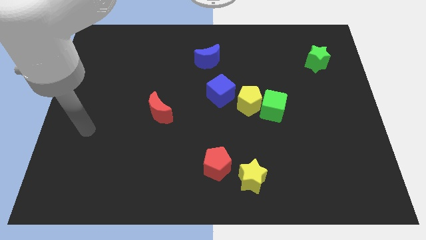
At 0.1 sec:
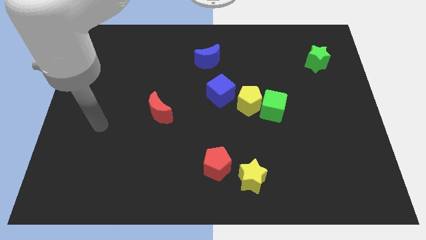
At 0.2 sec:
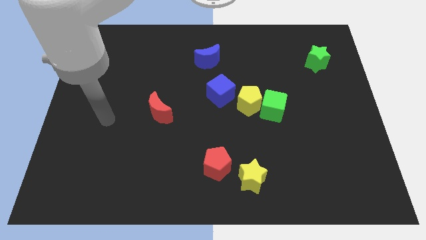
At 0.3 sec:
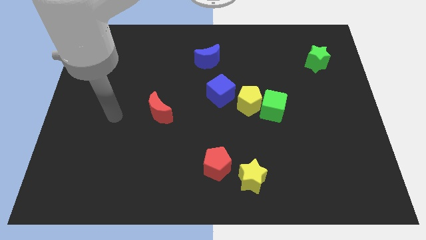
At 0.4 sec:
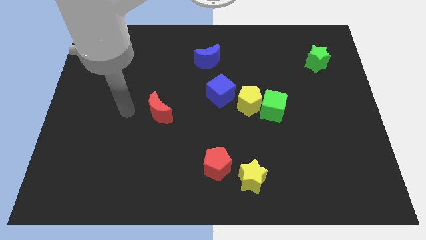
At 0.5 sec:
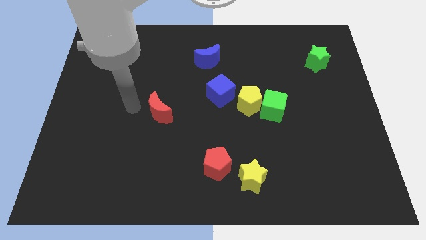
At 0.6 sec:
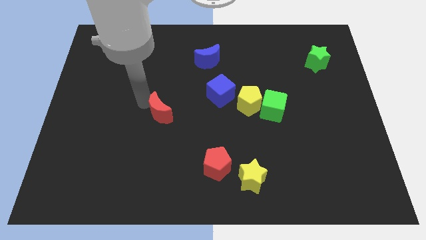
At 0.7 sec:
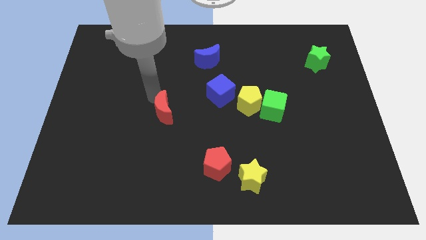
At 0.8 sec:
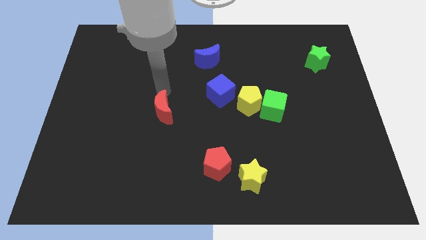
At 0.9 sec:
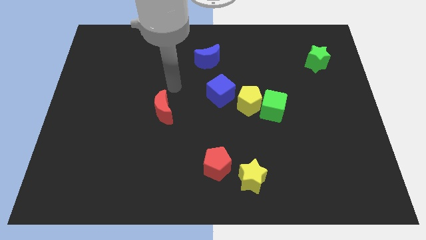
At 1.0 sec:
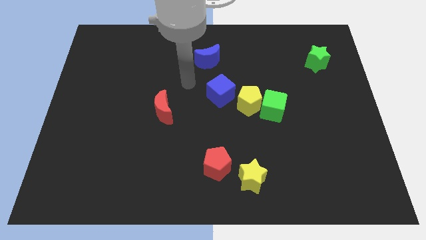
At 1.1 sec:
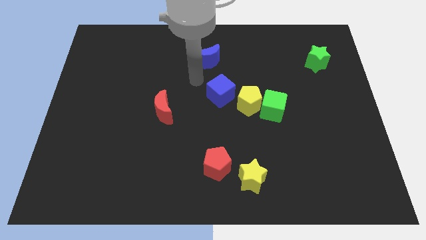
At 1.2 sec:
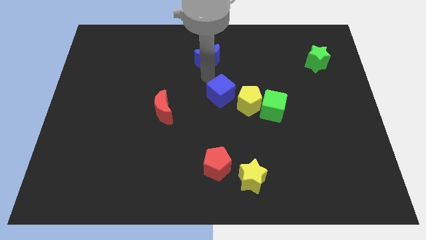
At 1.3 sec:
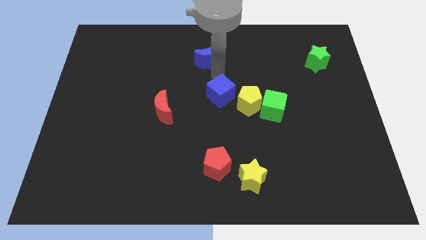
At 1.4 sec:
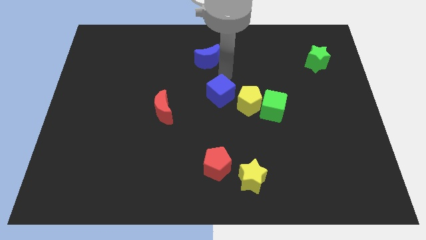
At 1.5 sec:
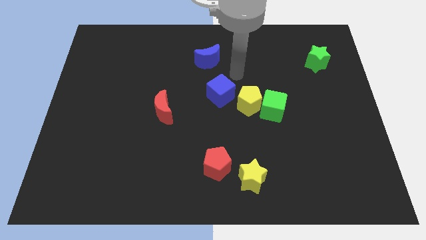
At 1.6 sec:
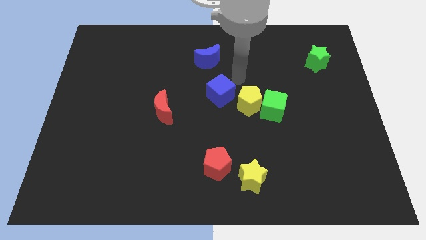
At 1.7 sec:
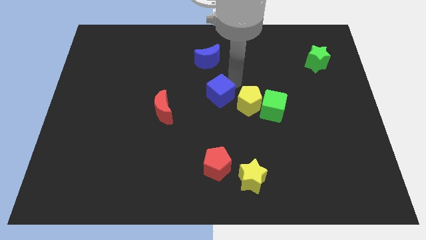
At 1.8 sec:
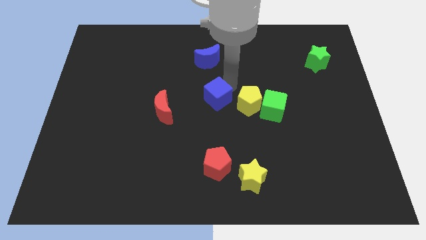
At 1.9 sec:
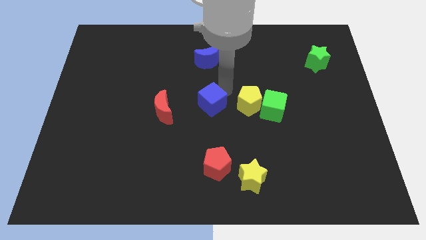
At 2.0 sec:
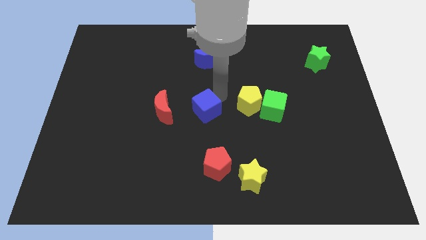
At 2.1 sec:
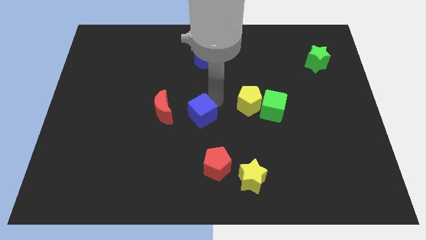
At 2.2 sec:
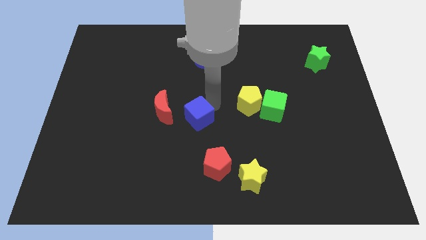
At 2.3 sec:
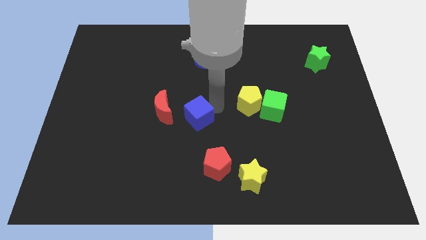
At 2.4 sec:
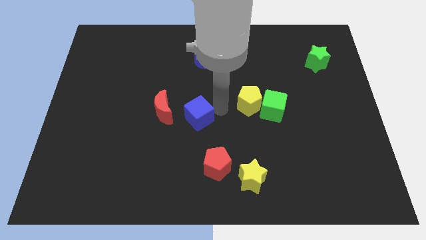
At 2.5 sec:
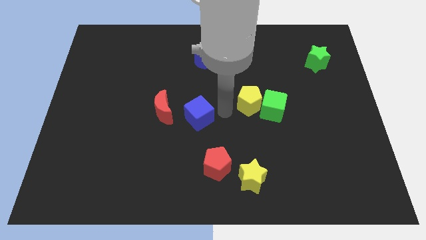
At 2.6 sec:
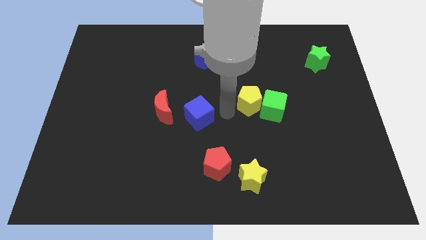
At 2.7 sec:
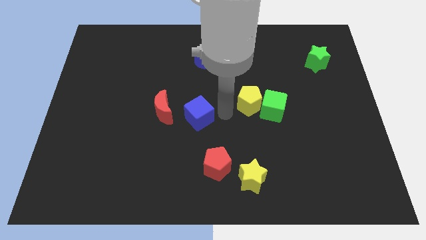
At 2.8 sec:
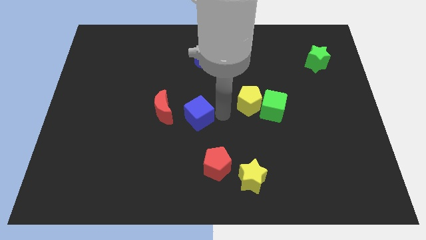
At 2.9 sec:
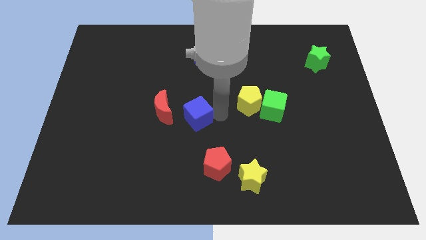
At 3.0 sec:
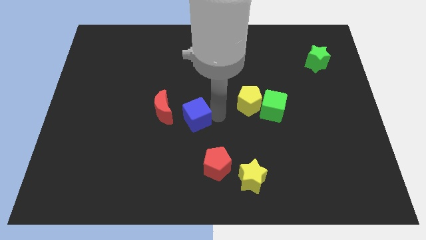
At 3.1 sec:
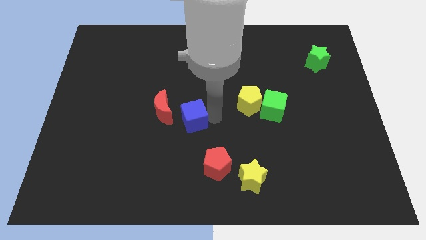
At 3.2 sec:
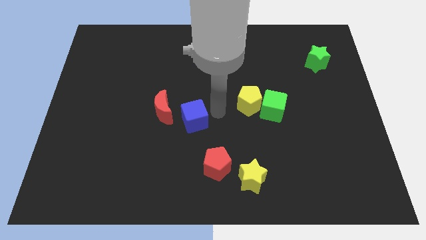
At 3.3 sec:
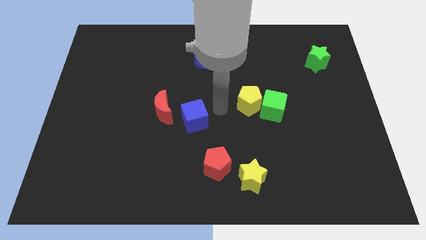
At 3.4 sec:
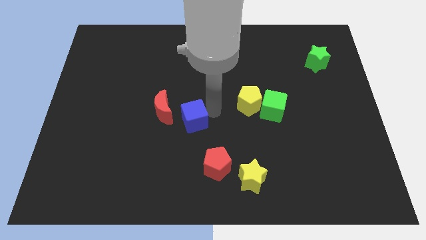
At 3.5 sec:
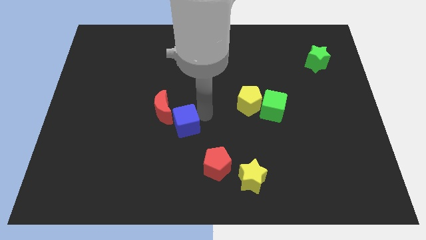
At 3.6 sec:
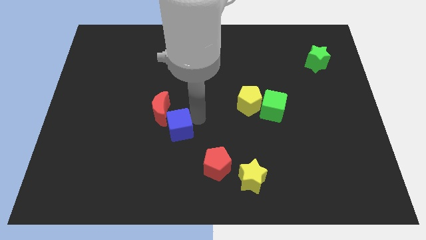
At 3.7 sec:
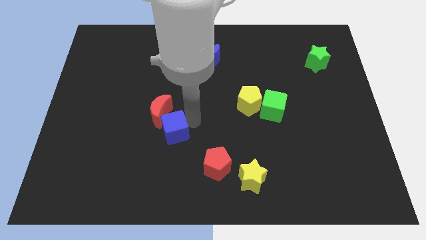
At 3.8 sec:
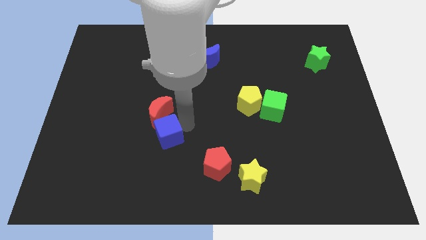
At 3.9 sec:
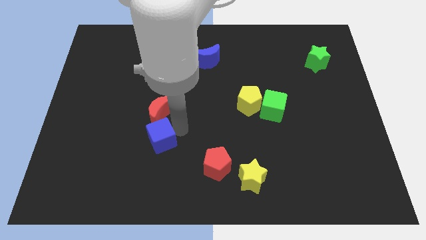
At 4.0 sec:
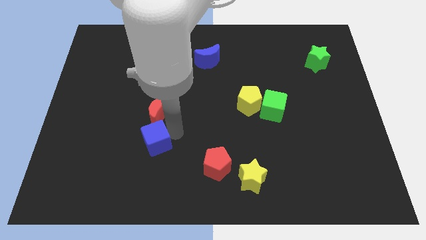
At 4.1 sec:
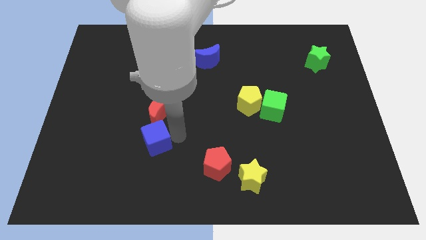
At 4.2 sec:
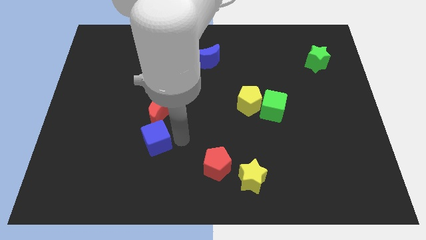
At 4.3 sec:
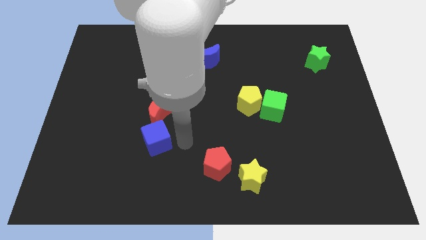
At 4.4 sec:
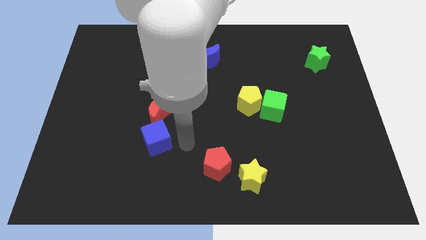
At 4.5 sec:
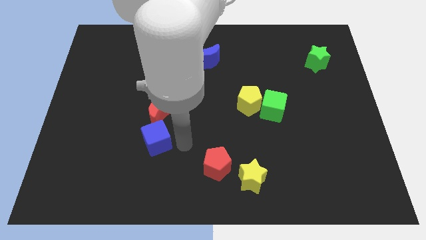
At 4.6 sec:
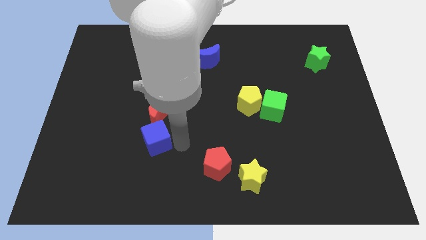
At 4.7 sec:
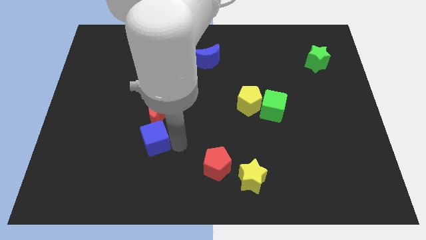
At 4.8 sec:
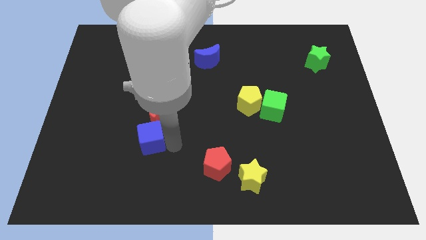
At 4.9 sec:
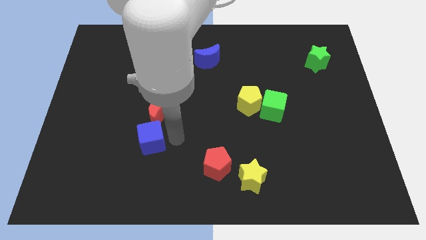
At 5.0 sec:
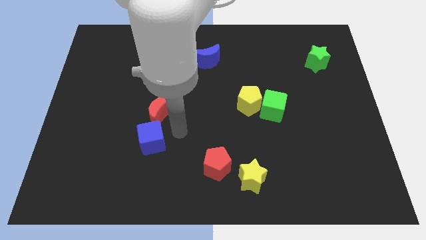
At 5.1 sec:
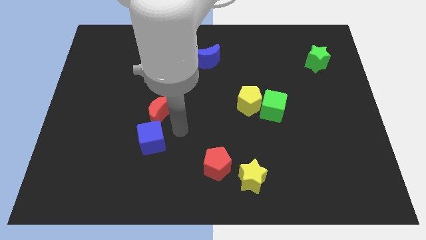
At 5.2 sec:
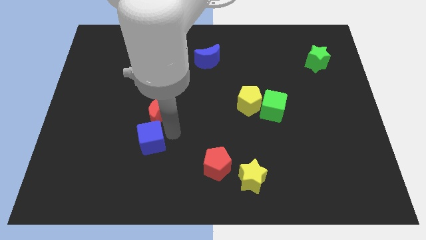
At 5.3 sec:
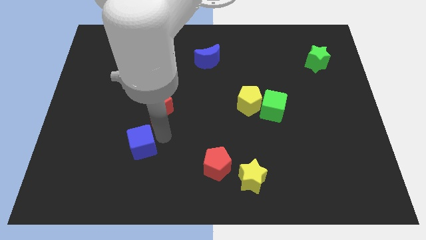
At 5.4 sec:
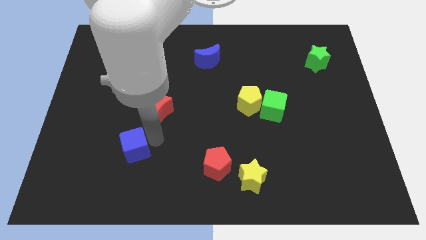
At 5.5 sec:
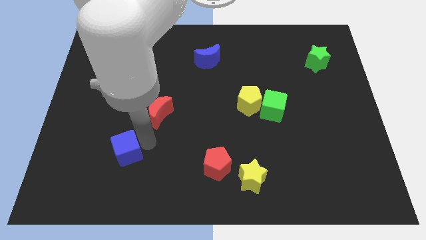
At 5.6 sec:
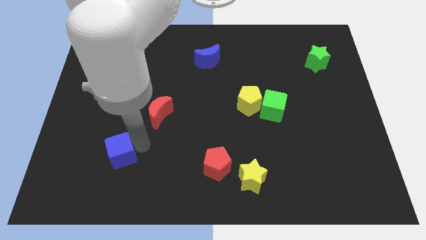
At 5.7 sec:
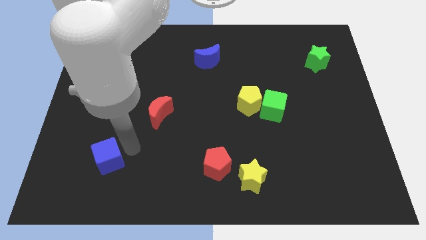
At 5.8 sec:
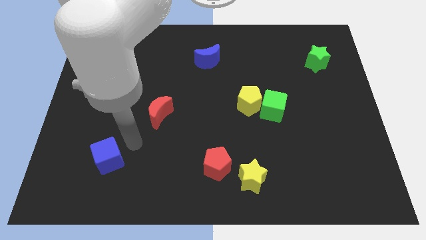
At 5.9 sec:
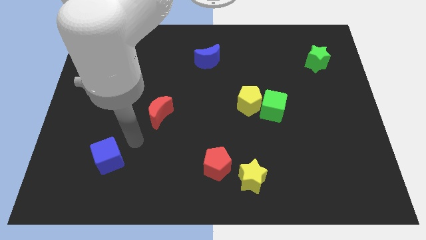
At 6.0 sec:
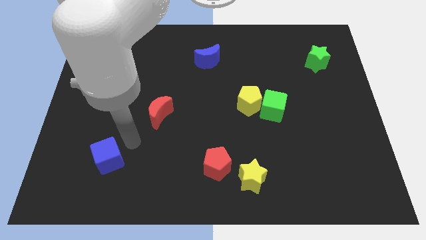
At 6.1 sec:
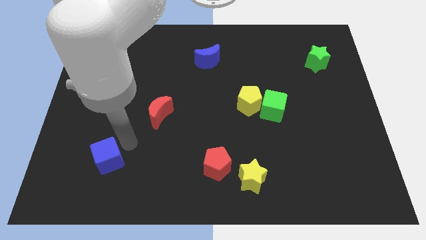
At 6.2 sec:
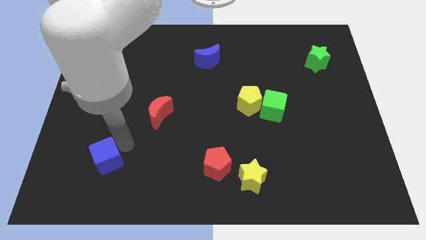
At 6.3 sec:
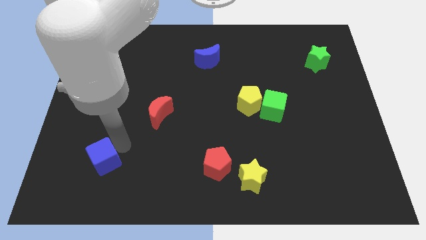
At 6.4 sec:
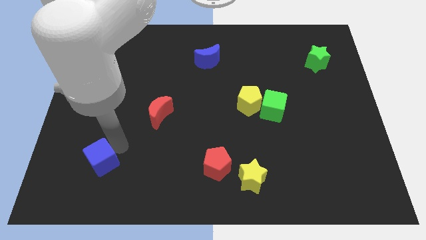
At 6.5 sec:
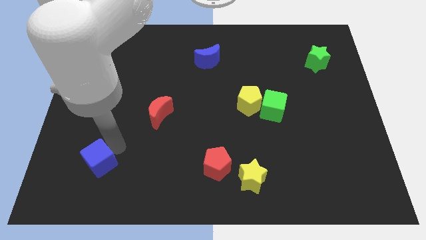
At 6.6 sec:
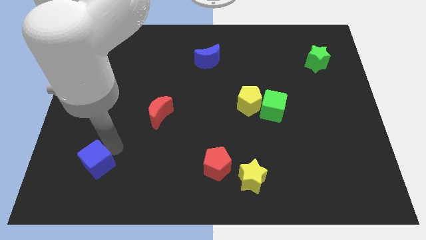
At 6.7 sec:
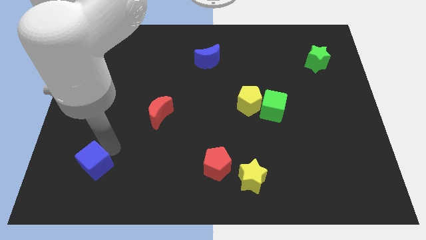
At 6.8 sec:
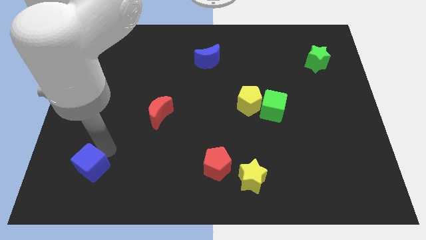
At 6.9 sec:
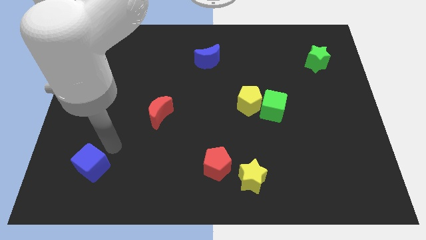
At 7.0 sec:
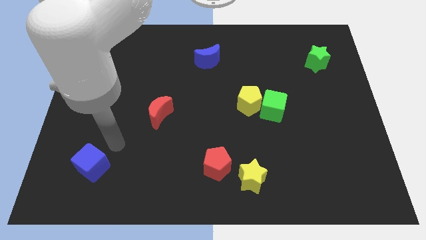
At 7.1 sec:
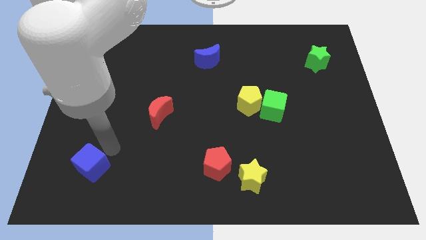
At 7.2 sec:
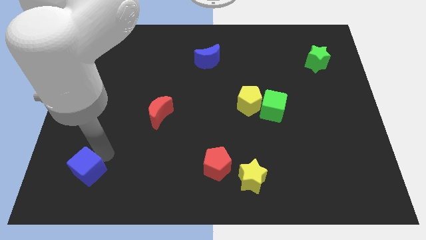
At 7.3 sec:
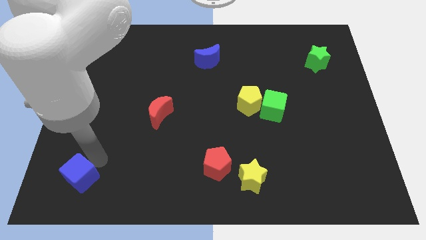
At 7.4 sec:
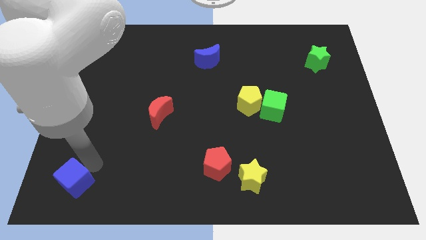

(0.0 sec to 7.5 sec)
move the blue cube to the bottom left corner
